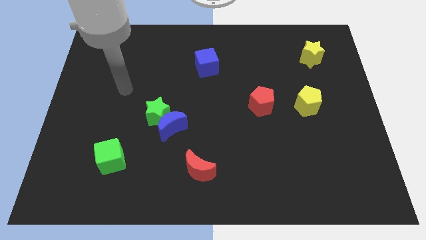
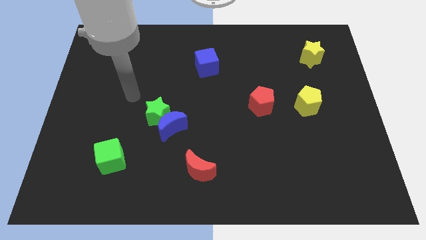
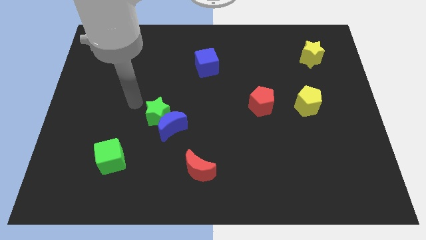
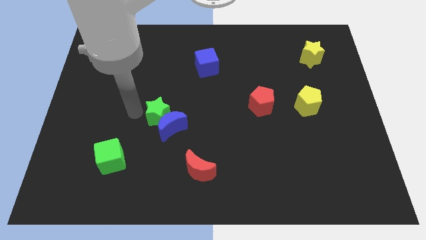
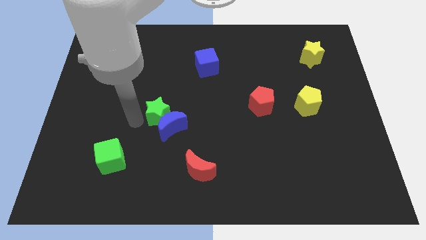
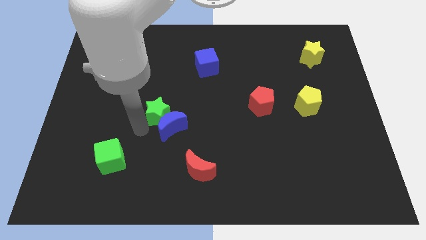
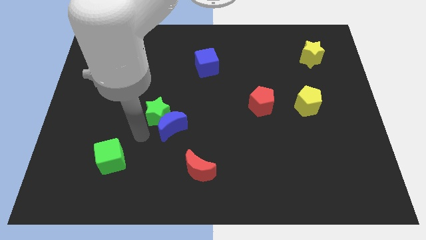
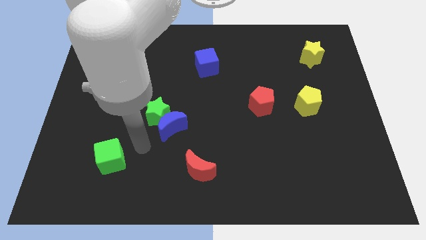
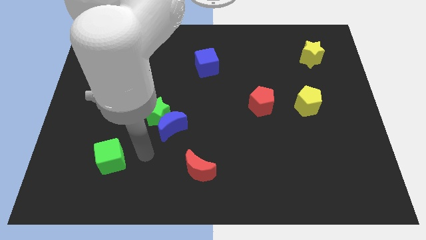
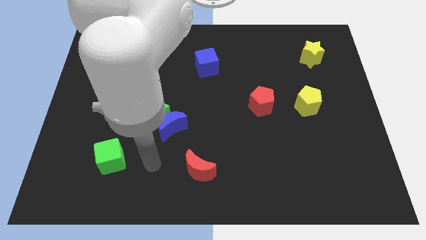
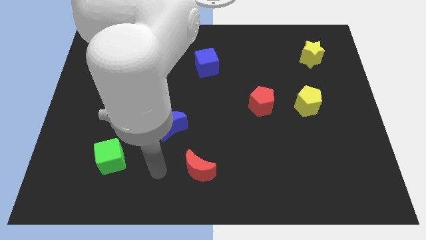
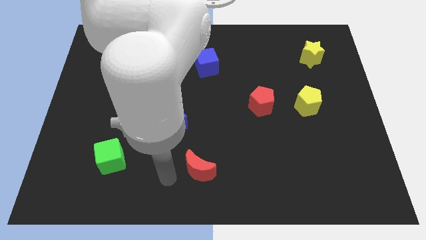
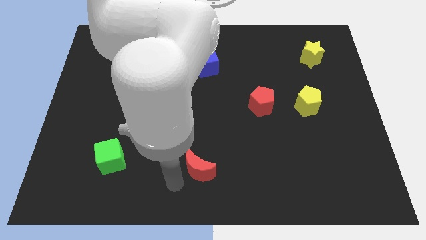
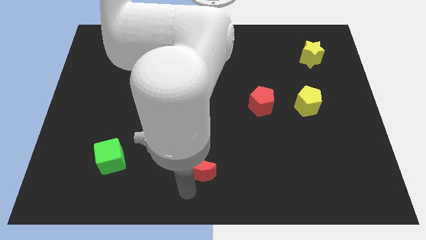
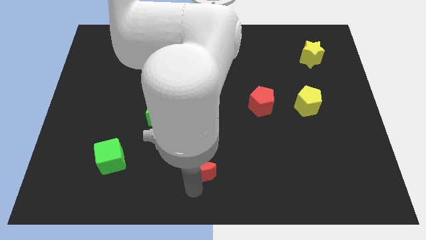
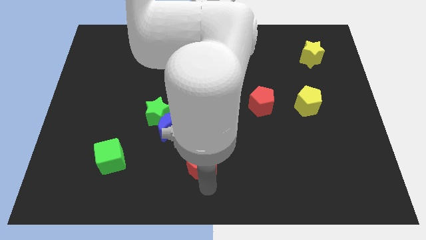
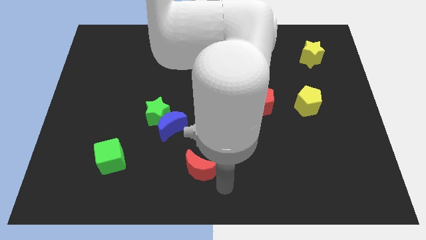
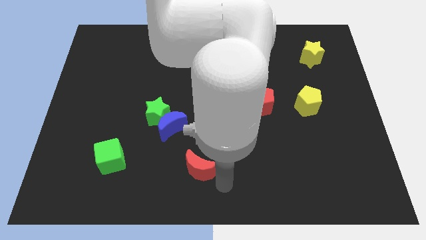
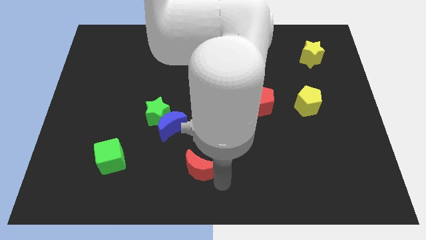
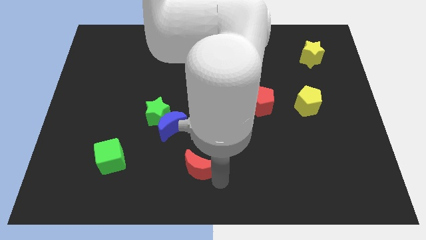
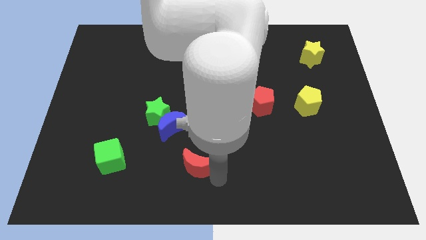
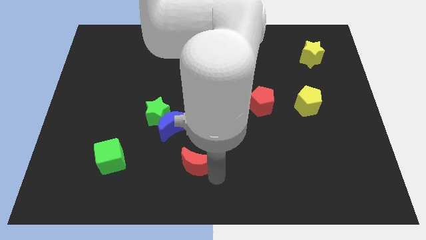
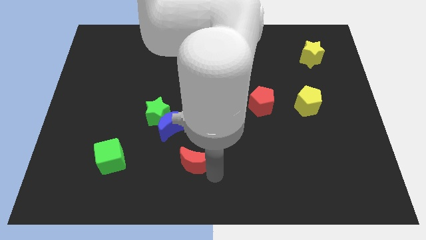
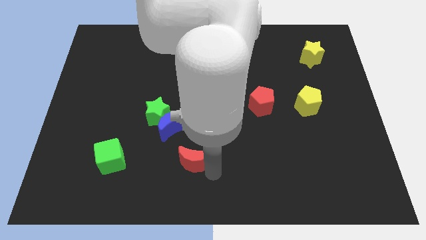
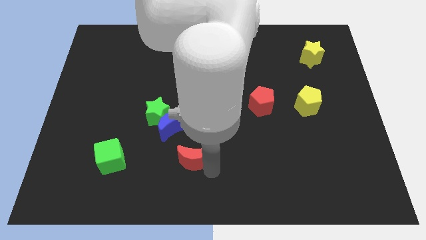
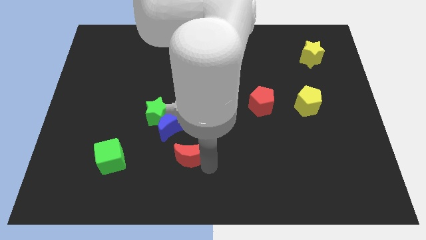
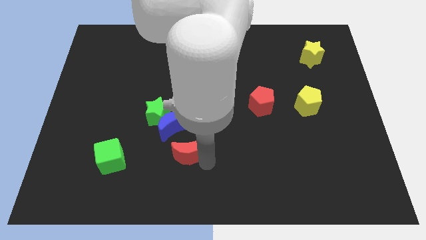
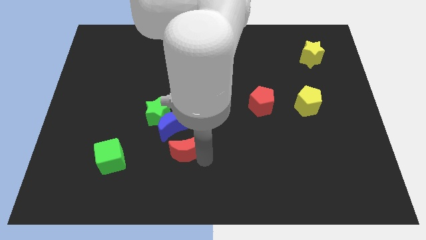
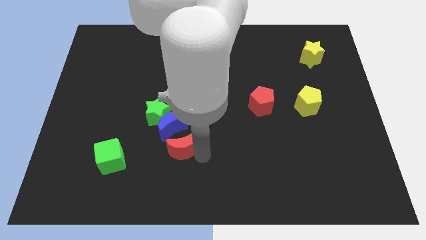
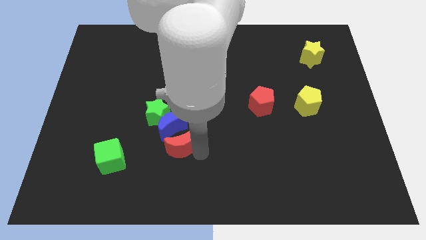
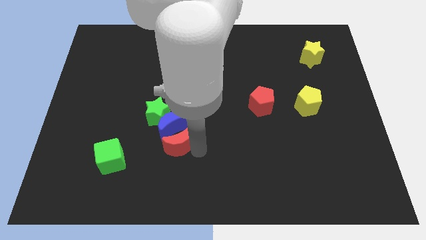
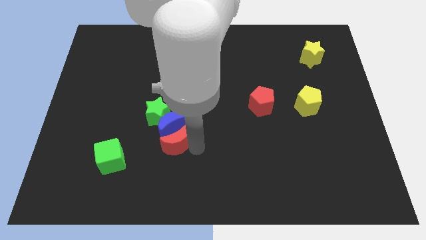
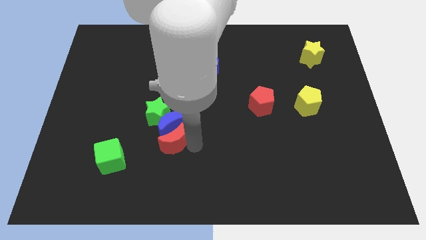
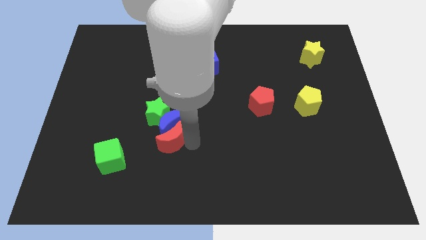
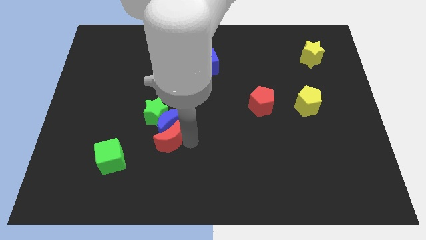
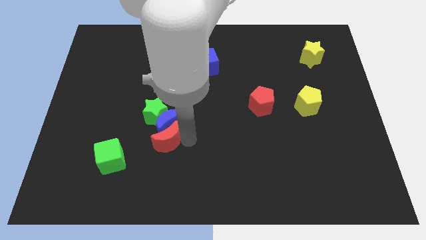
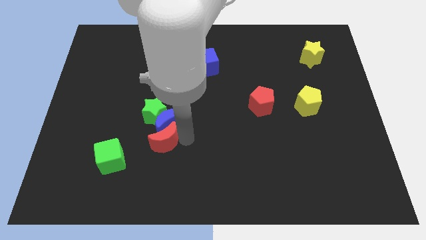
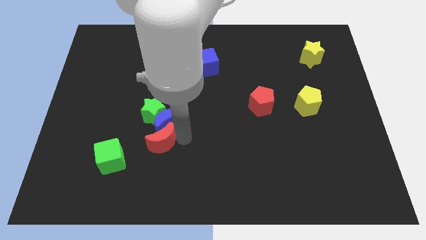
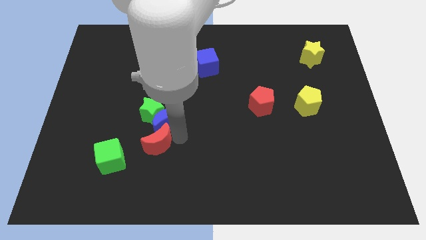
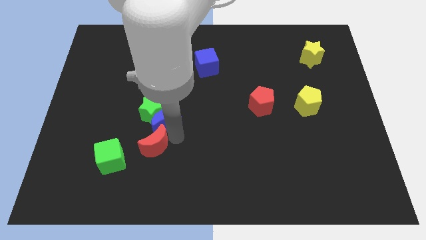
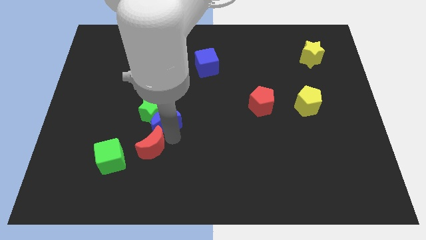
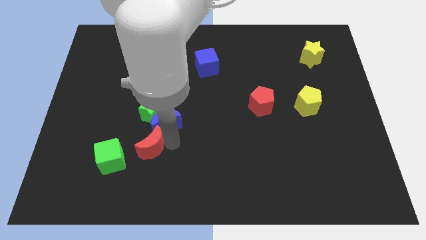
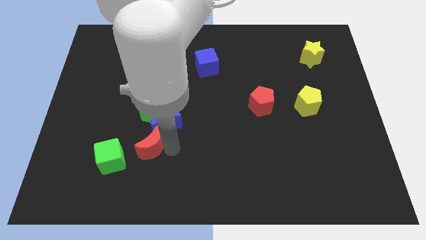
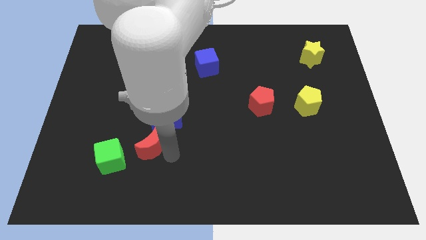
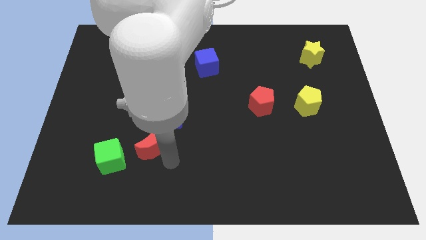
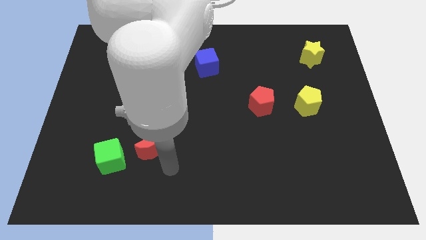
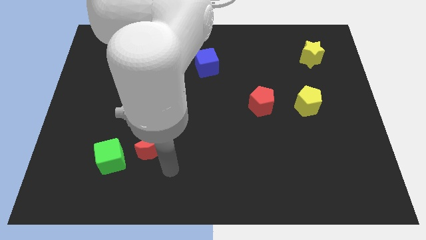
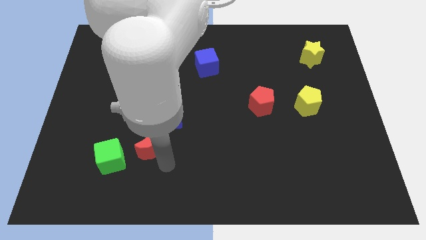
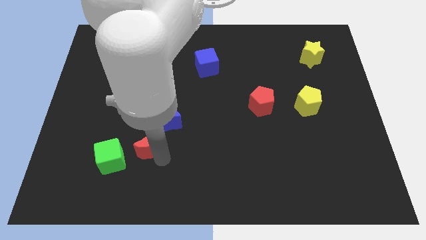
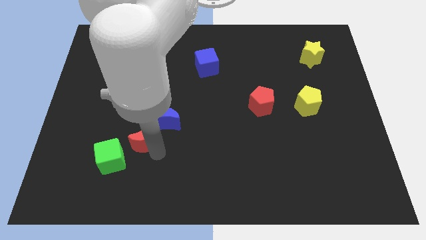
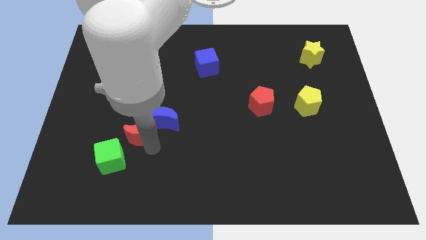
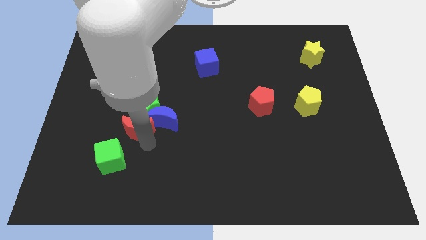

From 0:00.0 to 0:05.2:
slide the red moon above the green cube

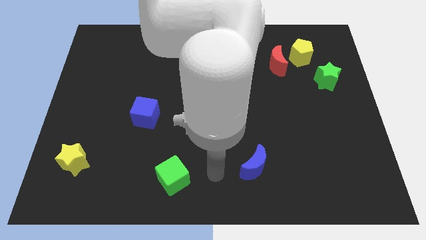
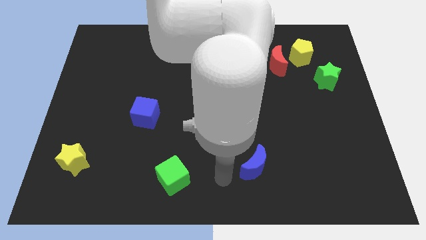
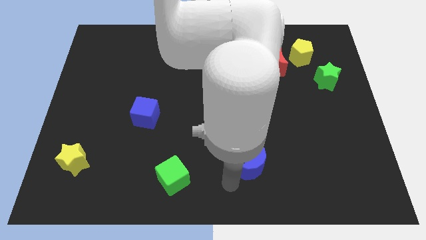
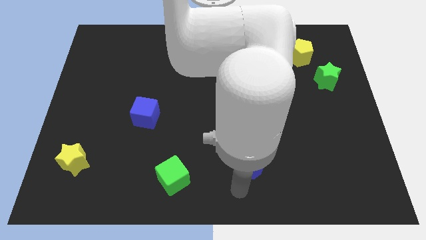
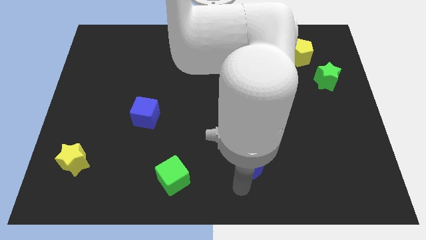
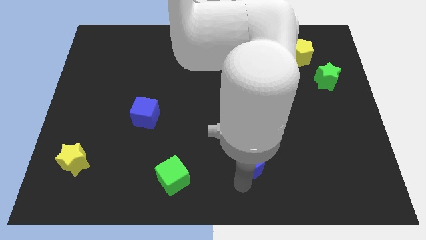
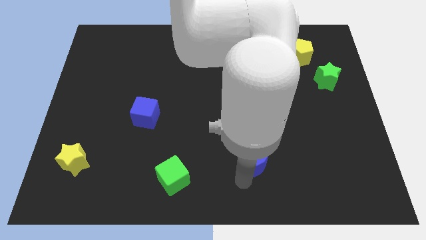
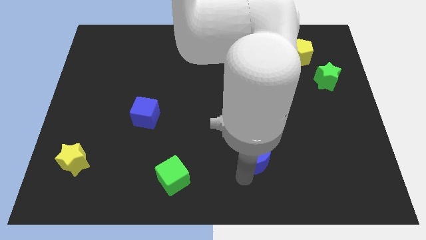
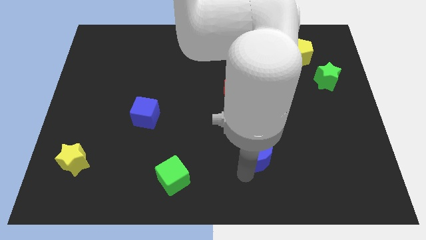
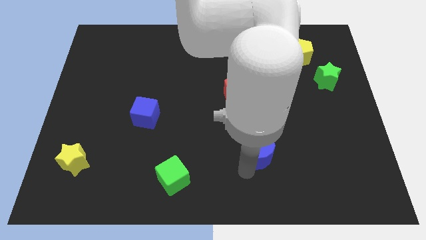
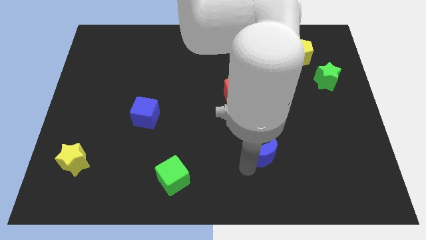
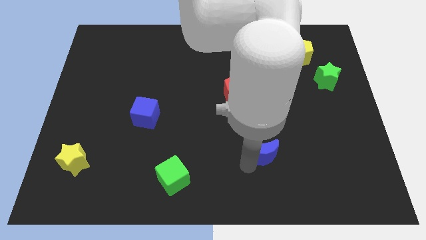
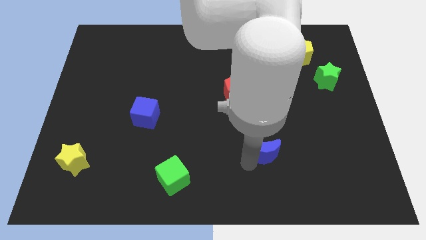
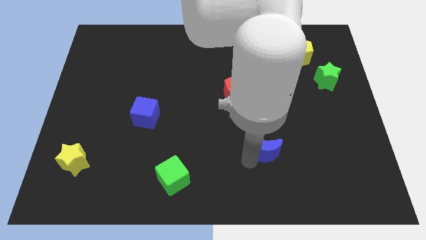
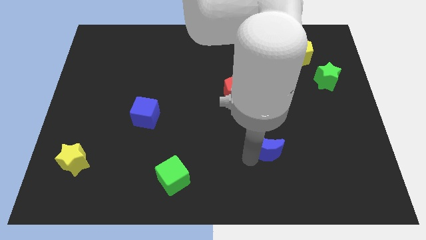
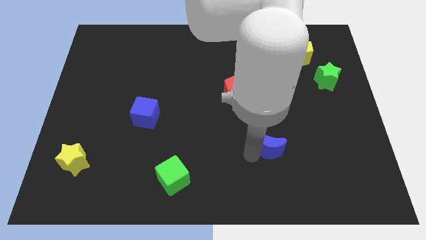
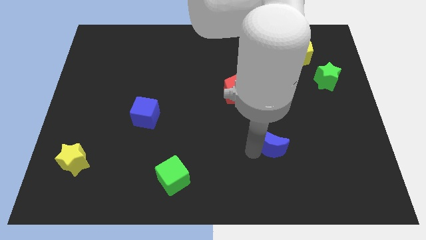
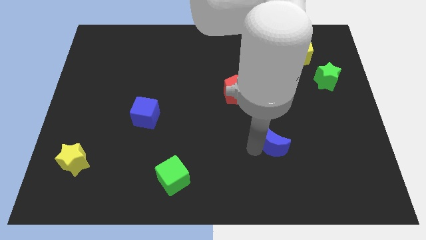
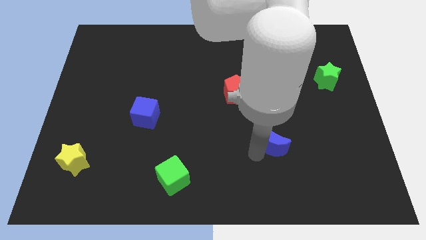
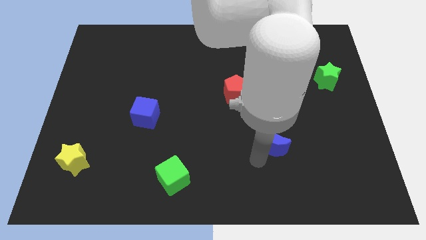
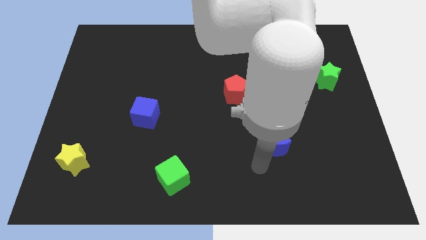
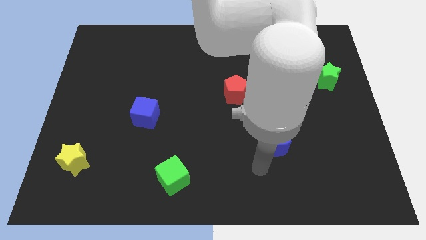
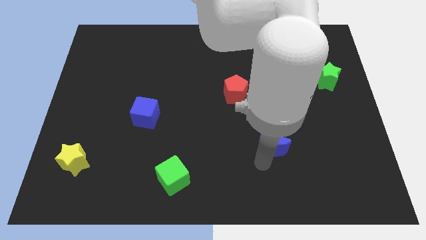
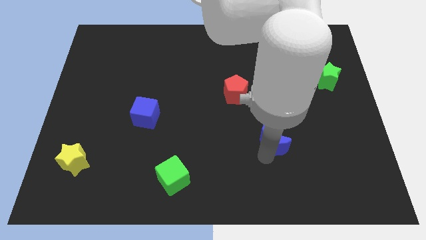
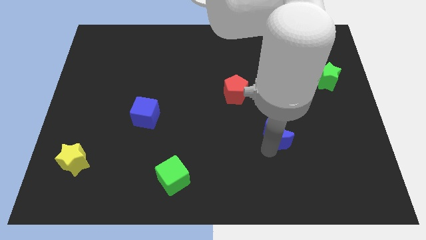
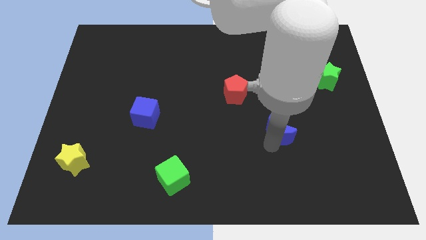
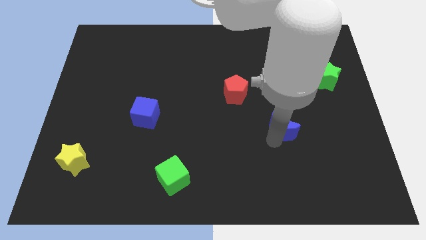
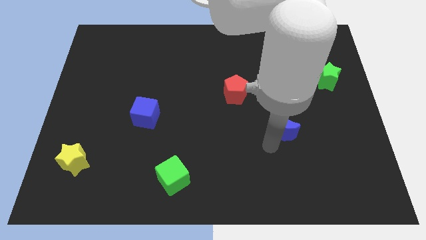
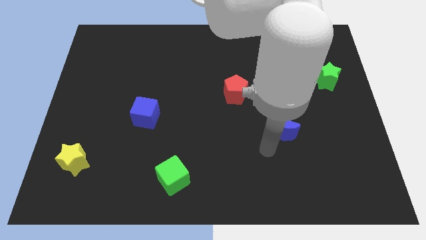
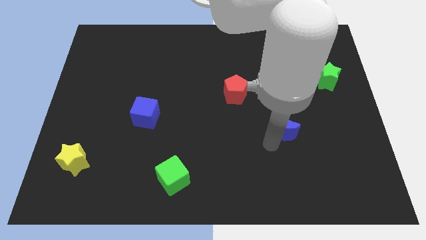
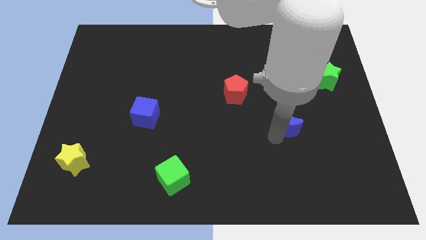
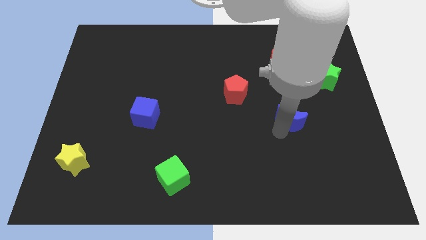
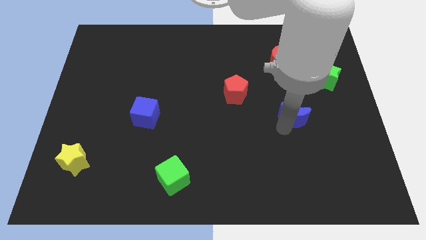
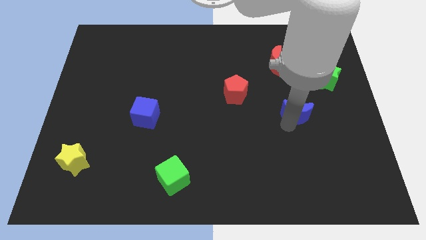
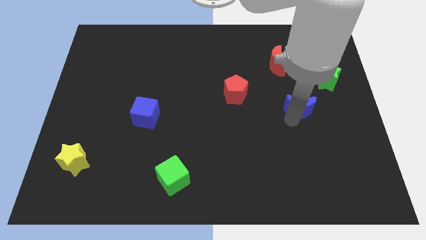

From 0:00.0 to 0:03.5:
slide the blue moon to the bottom left of the green star
